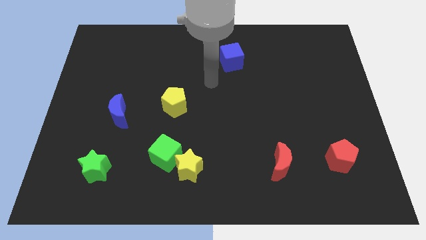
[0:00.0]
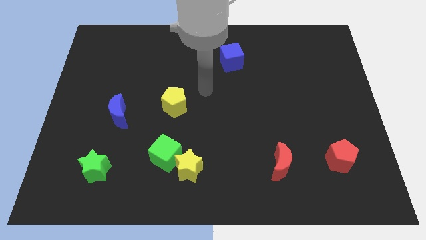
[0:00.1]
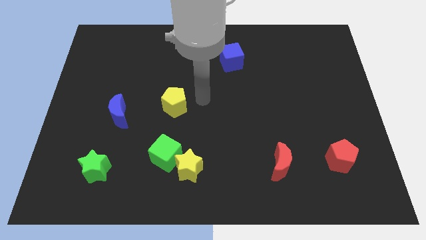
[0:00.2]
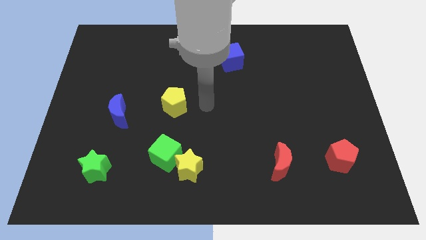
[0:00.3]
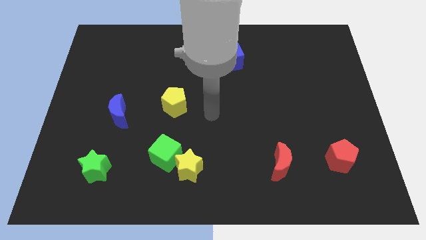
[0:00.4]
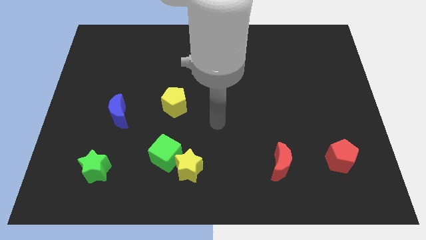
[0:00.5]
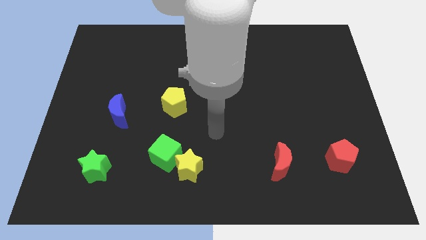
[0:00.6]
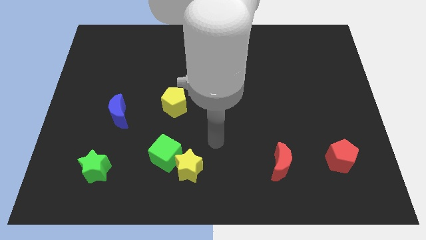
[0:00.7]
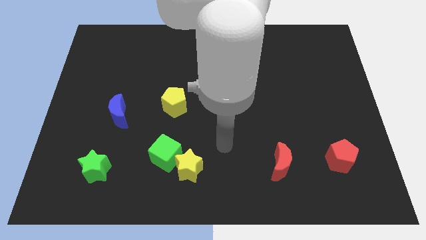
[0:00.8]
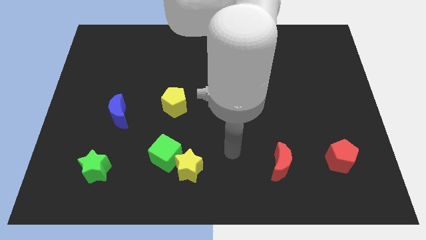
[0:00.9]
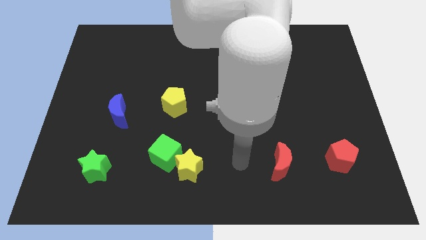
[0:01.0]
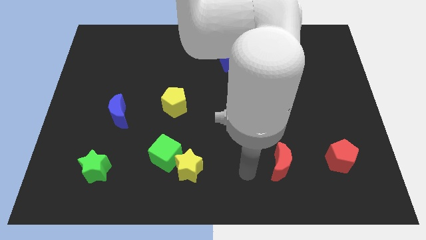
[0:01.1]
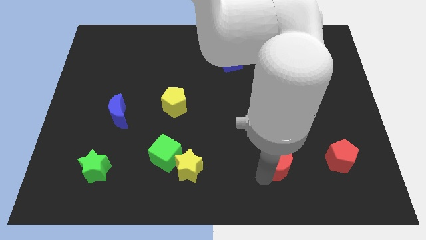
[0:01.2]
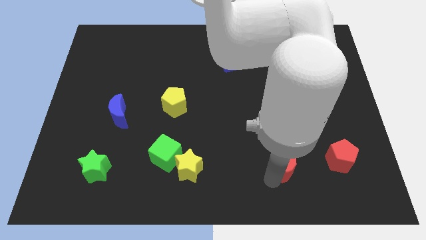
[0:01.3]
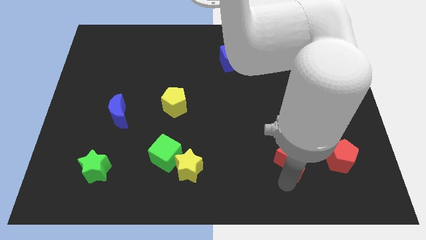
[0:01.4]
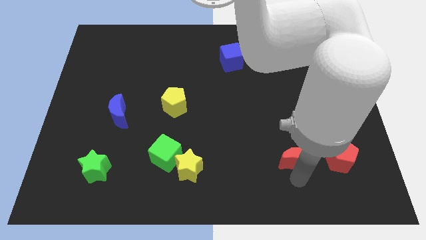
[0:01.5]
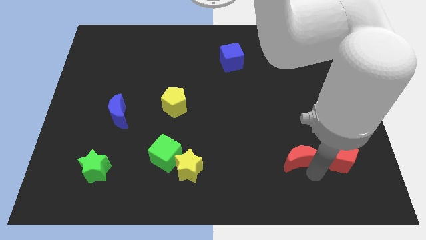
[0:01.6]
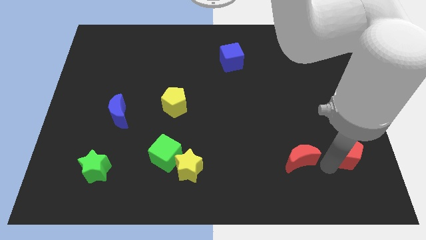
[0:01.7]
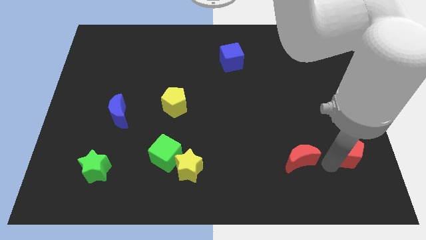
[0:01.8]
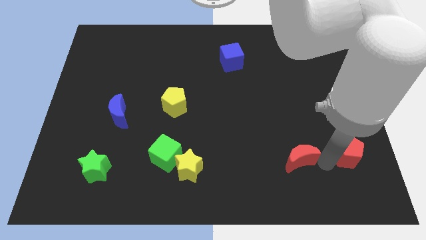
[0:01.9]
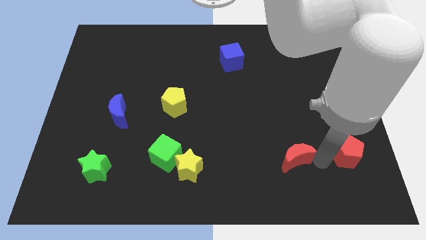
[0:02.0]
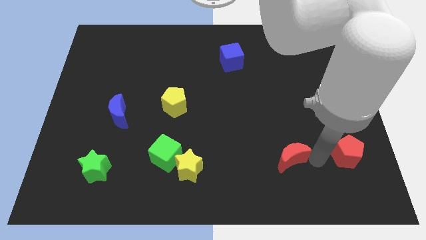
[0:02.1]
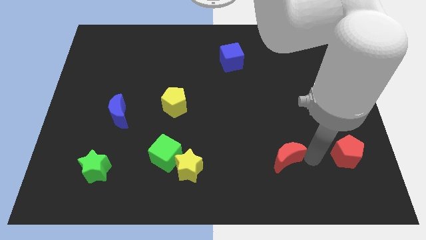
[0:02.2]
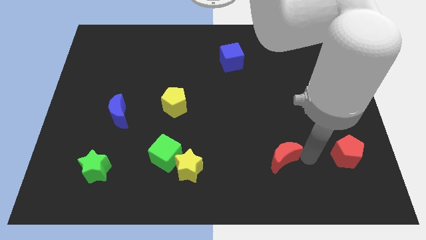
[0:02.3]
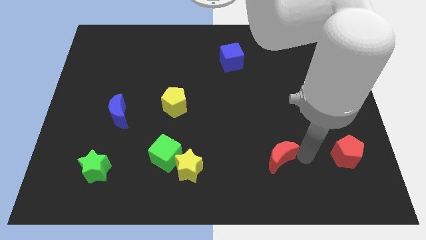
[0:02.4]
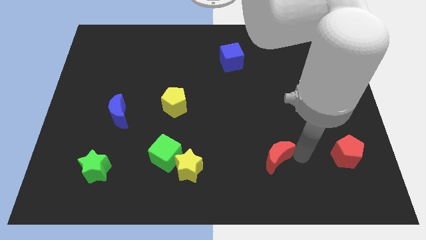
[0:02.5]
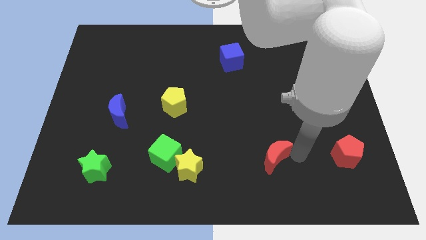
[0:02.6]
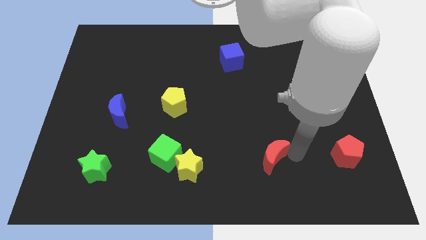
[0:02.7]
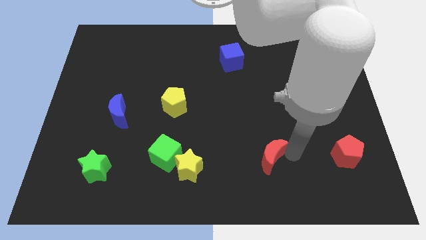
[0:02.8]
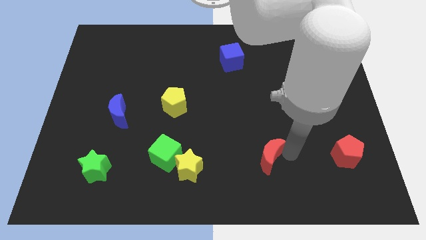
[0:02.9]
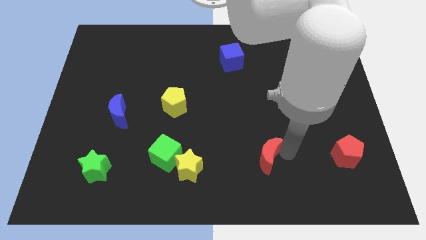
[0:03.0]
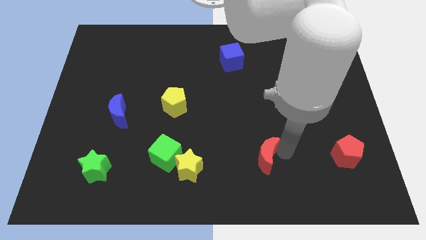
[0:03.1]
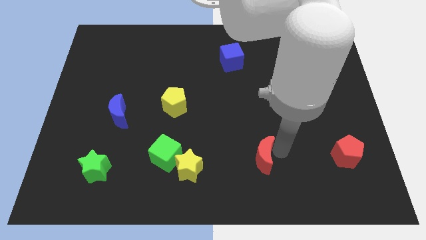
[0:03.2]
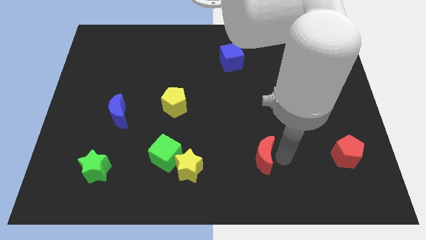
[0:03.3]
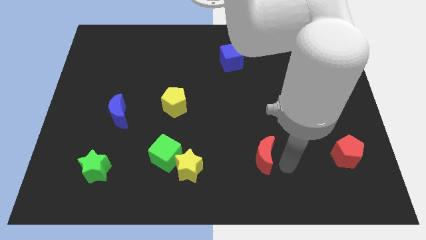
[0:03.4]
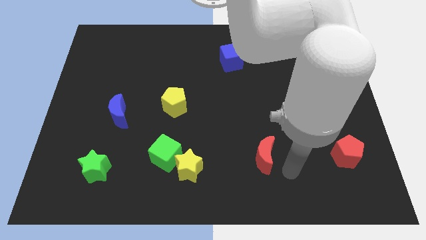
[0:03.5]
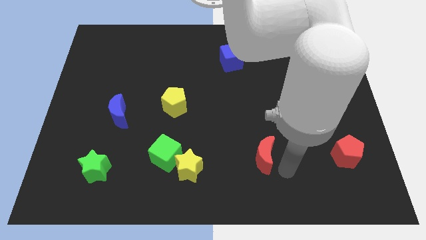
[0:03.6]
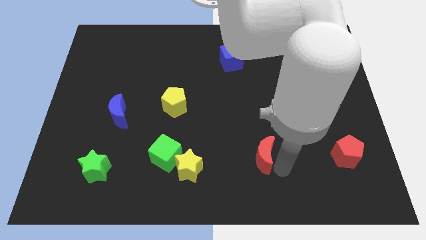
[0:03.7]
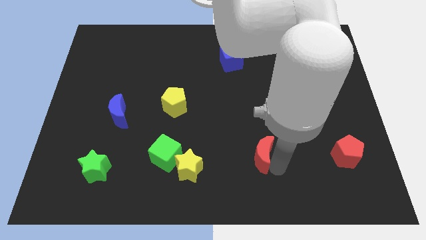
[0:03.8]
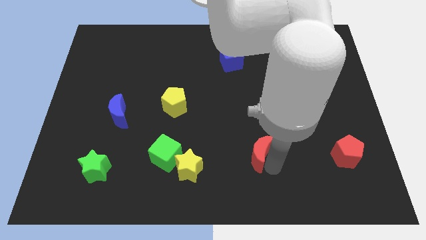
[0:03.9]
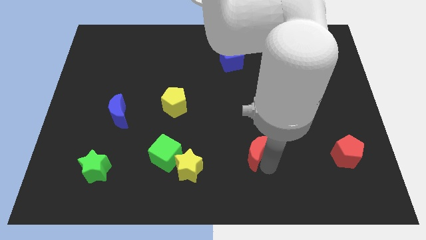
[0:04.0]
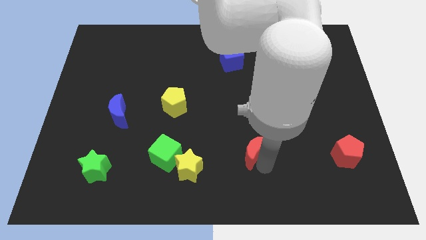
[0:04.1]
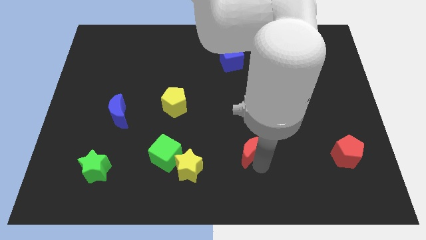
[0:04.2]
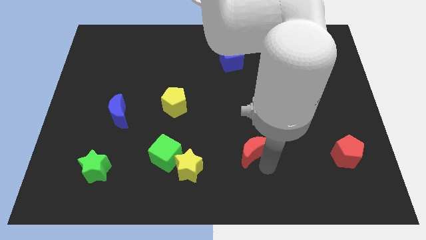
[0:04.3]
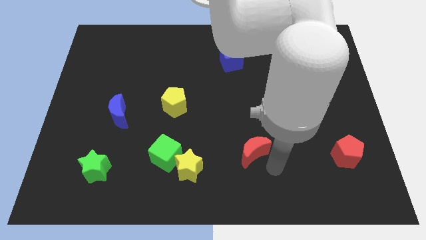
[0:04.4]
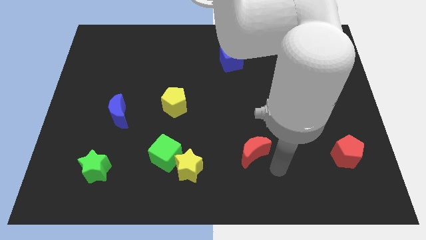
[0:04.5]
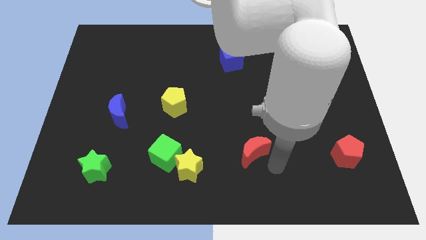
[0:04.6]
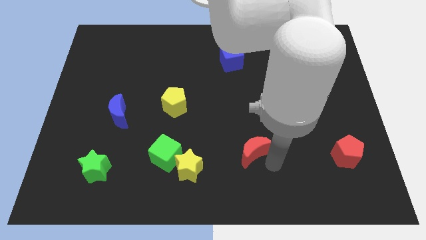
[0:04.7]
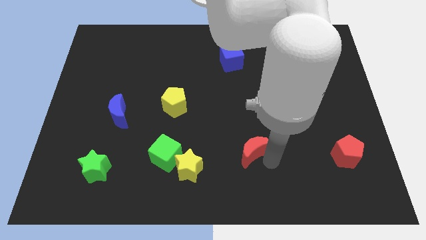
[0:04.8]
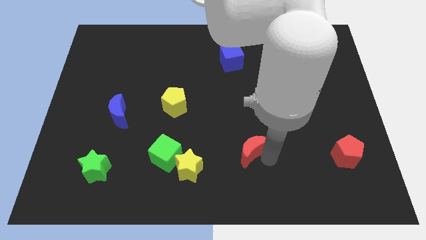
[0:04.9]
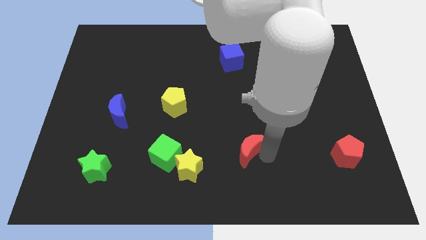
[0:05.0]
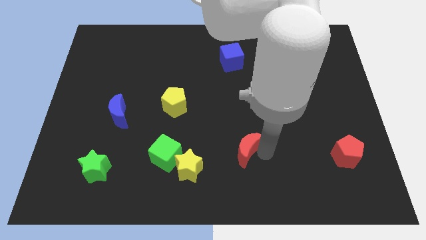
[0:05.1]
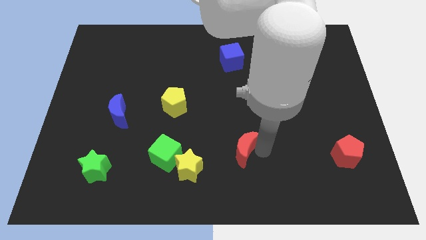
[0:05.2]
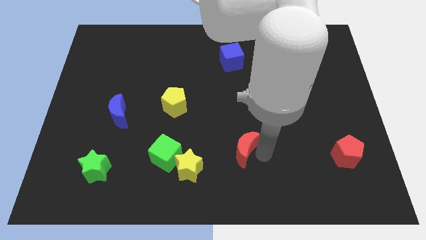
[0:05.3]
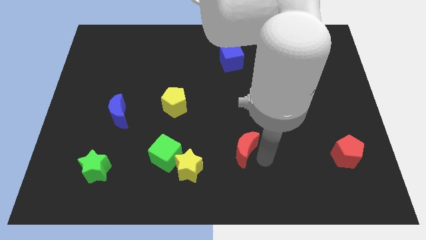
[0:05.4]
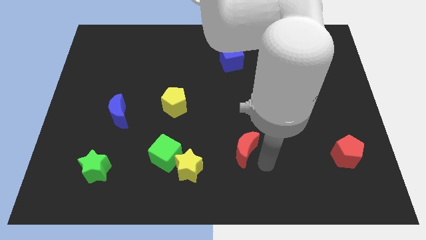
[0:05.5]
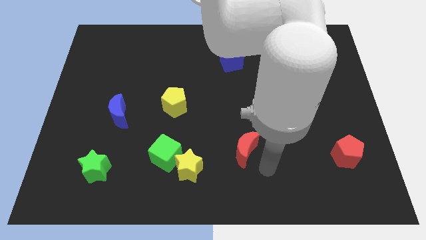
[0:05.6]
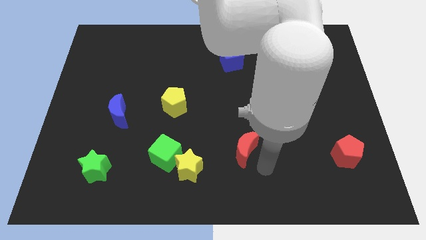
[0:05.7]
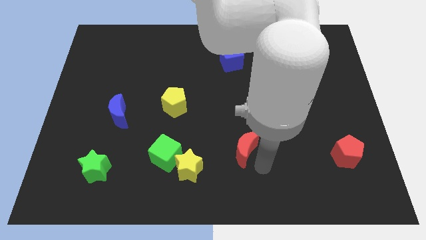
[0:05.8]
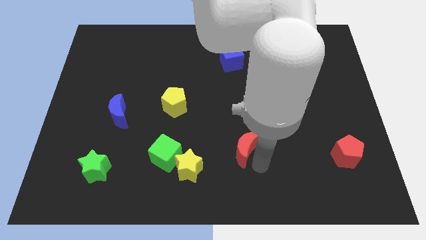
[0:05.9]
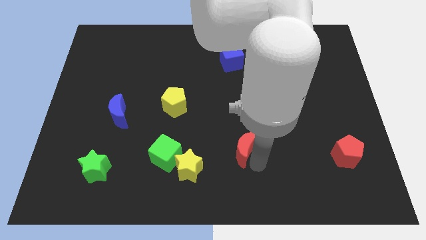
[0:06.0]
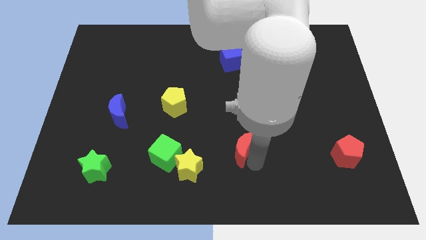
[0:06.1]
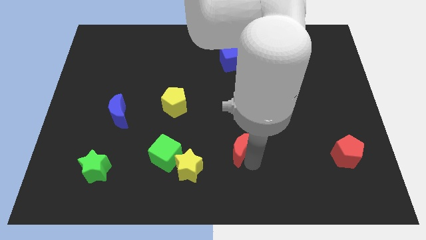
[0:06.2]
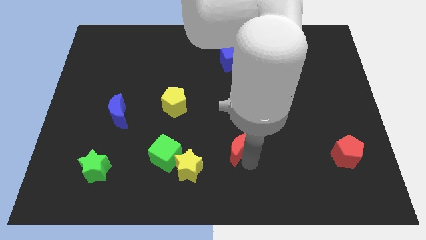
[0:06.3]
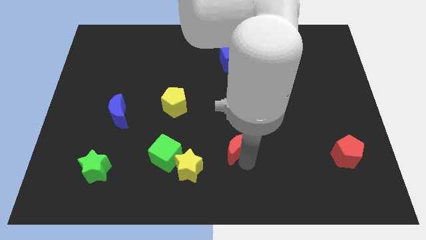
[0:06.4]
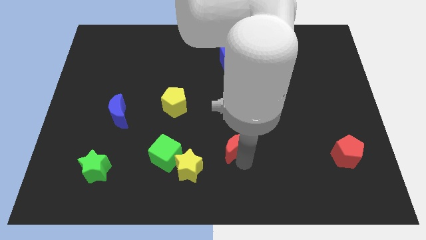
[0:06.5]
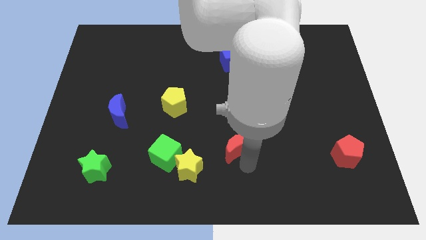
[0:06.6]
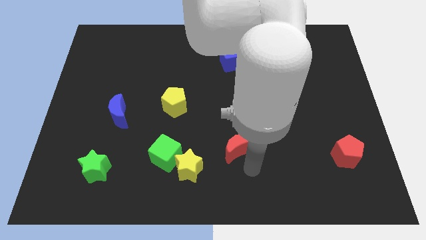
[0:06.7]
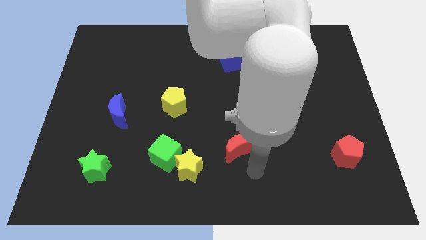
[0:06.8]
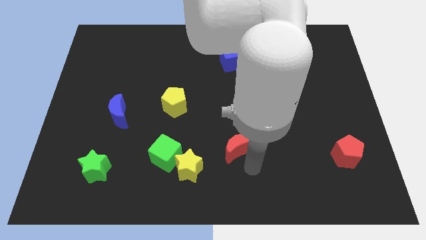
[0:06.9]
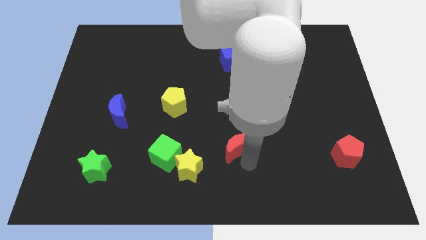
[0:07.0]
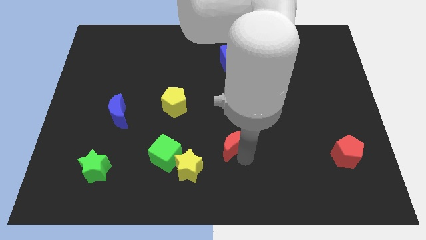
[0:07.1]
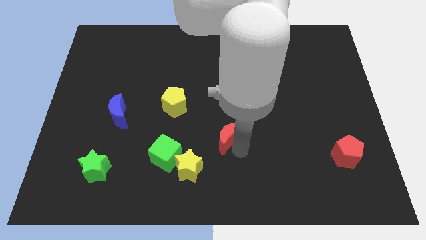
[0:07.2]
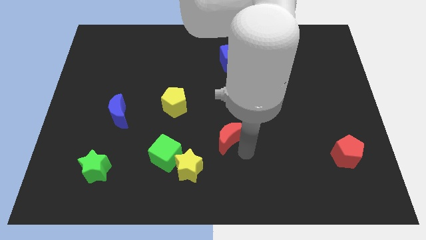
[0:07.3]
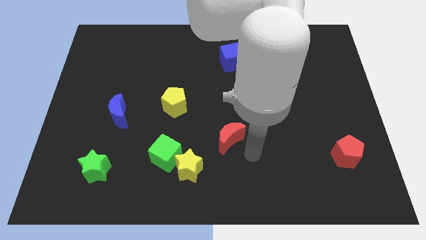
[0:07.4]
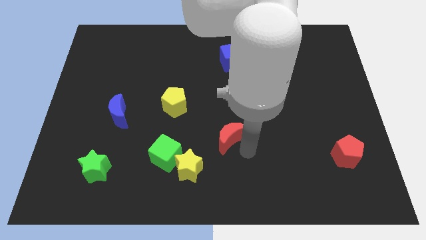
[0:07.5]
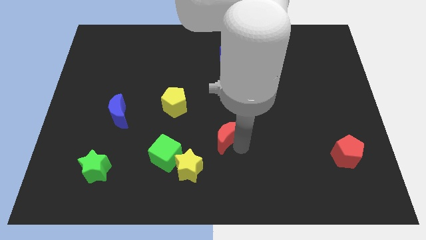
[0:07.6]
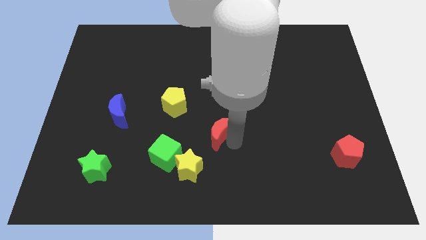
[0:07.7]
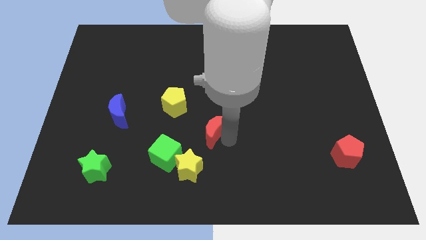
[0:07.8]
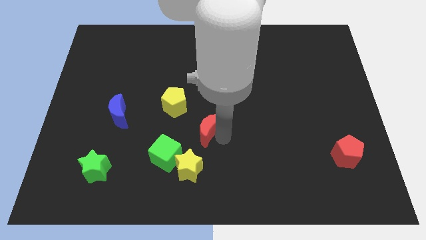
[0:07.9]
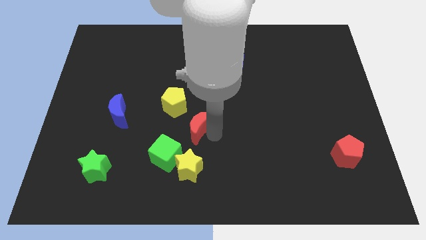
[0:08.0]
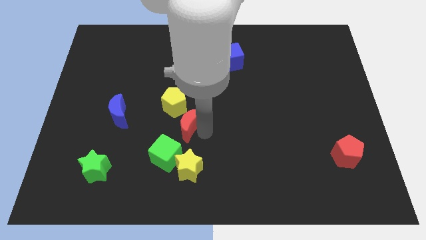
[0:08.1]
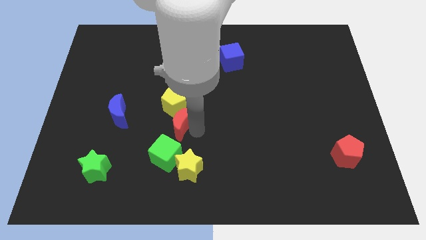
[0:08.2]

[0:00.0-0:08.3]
slide the red moon towards the yellow pentagon
